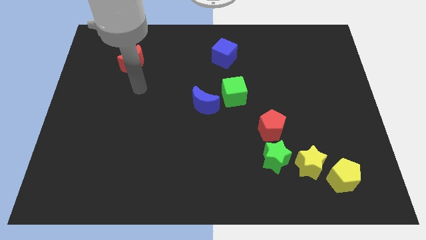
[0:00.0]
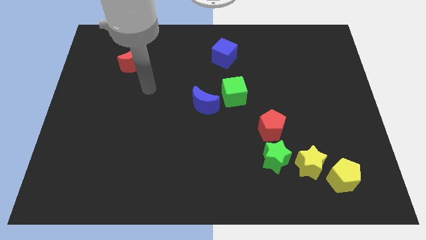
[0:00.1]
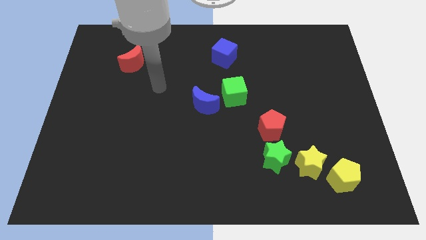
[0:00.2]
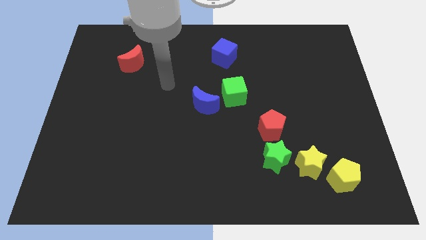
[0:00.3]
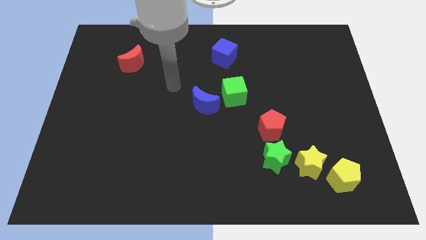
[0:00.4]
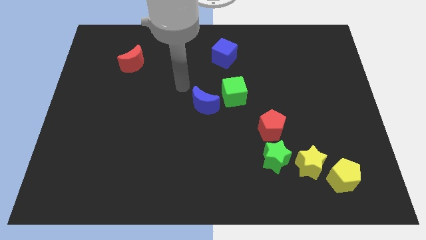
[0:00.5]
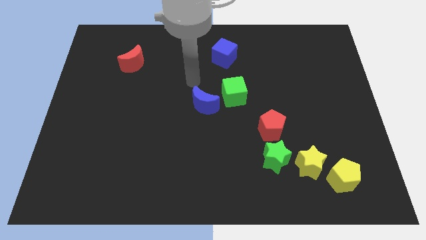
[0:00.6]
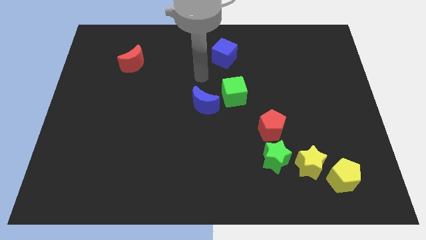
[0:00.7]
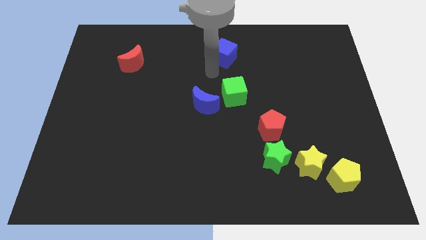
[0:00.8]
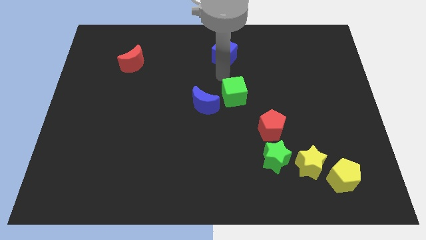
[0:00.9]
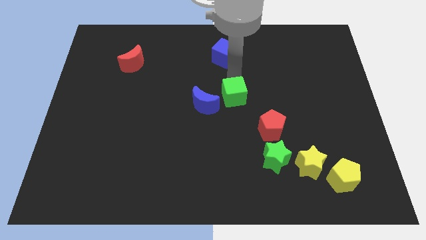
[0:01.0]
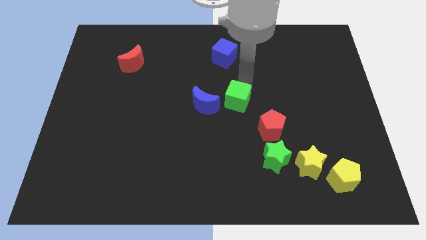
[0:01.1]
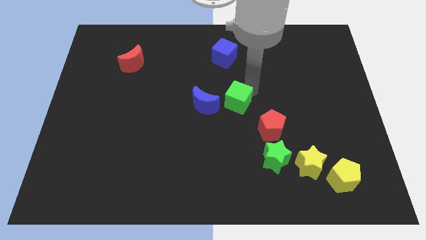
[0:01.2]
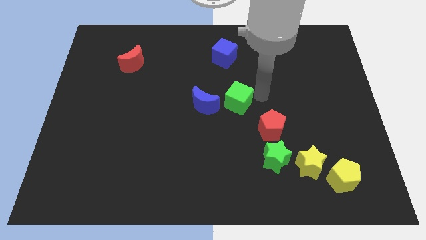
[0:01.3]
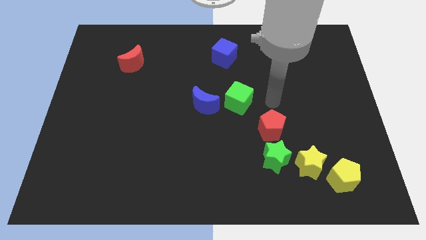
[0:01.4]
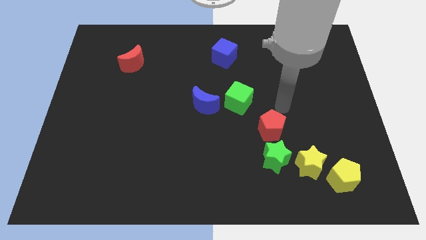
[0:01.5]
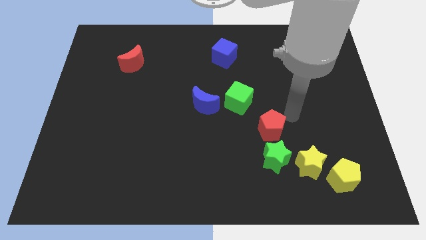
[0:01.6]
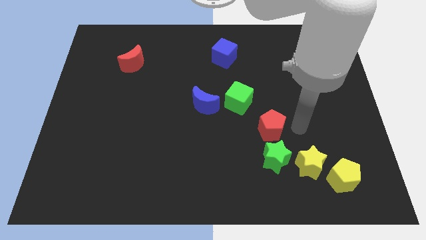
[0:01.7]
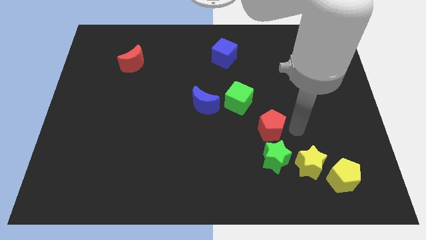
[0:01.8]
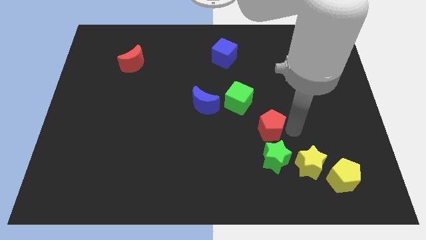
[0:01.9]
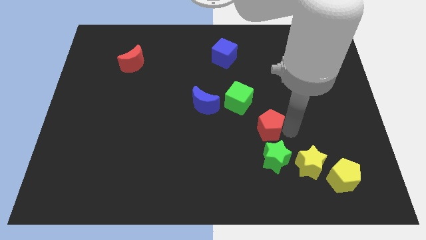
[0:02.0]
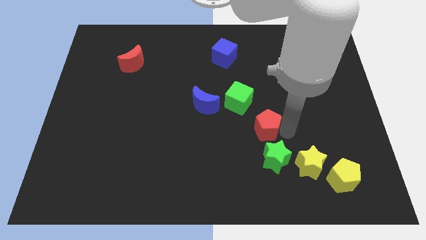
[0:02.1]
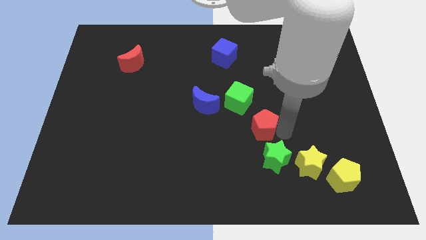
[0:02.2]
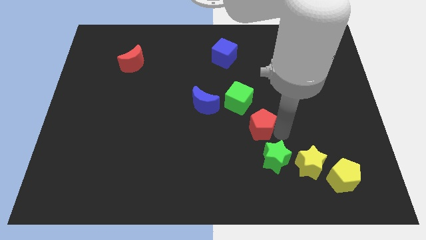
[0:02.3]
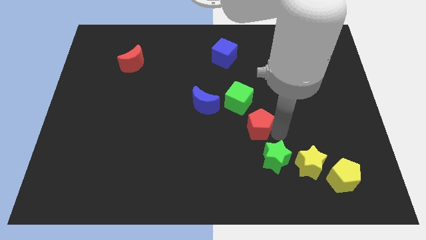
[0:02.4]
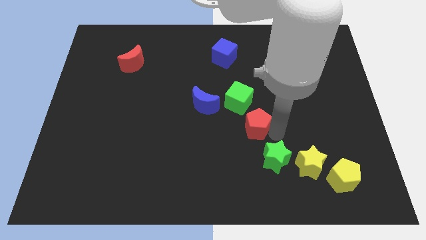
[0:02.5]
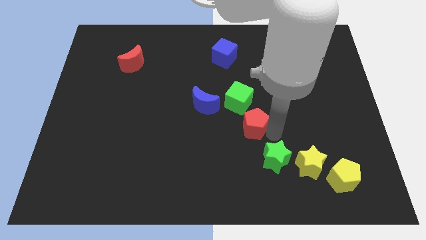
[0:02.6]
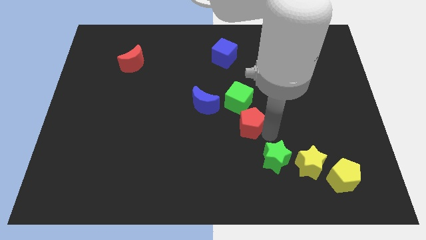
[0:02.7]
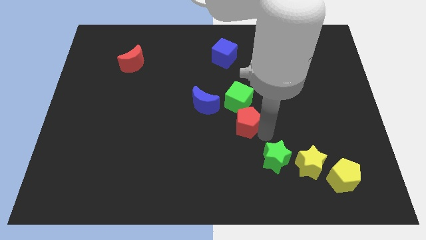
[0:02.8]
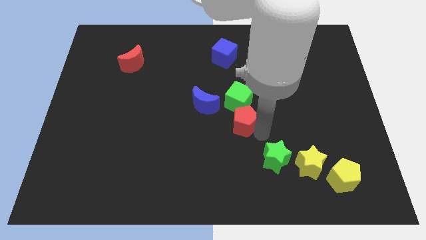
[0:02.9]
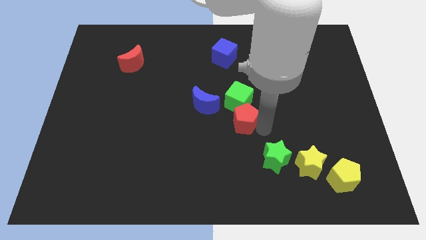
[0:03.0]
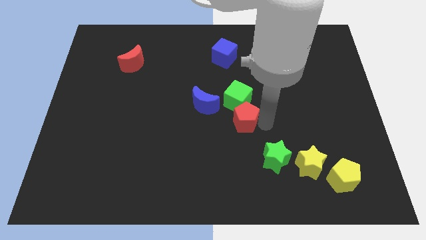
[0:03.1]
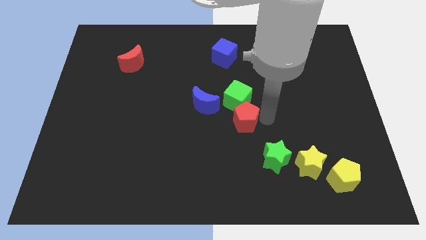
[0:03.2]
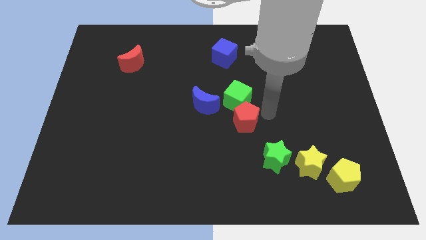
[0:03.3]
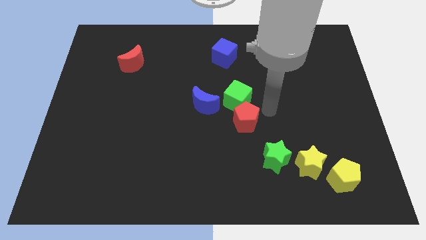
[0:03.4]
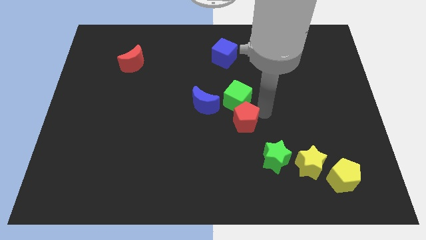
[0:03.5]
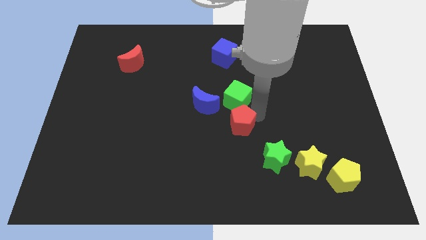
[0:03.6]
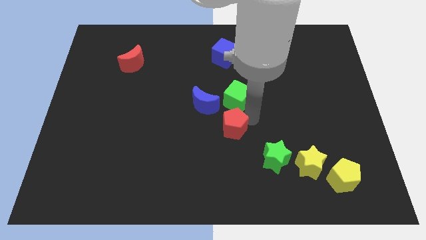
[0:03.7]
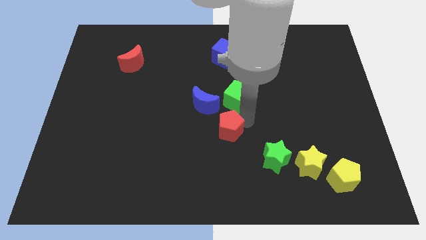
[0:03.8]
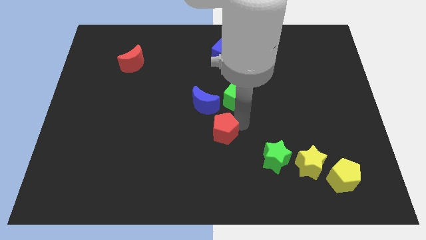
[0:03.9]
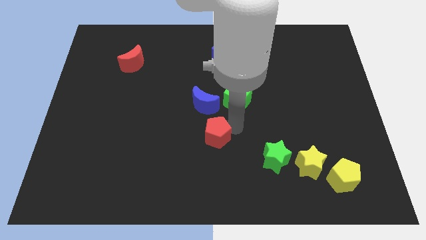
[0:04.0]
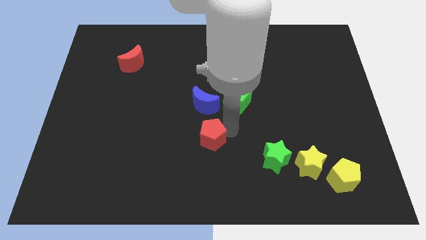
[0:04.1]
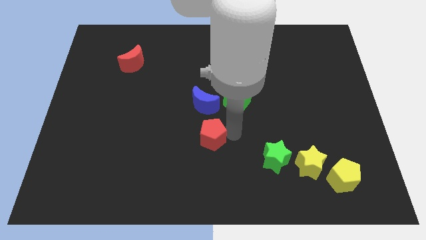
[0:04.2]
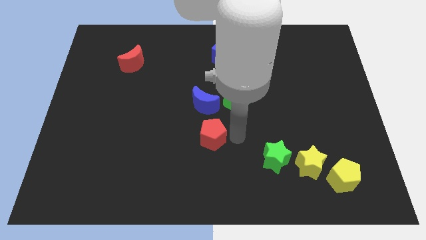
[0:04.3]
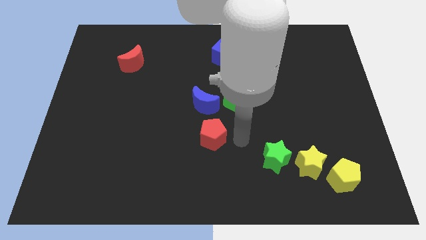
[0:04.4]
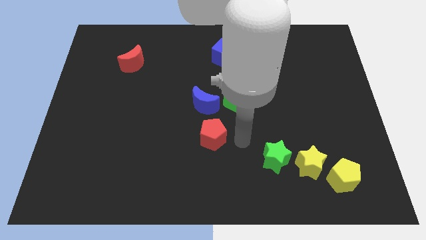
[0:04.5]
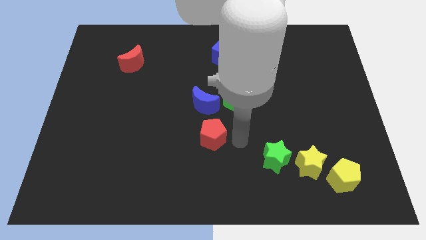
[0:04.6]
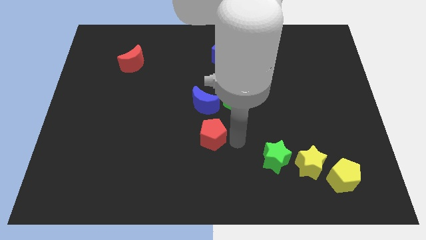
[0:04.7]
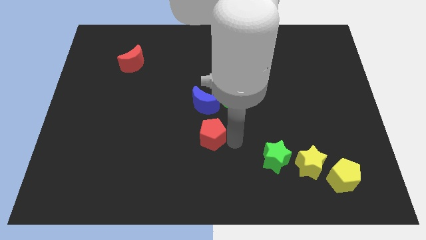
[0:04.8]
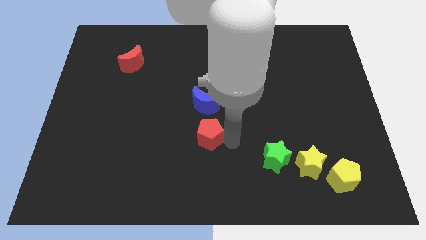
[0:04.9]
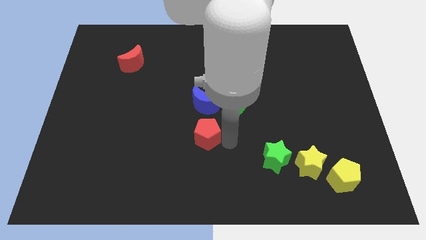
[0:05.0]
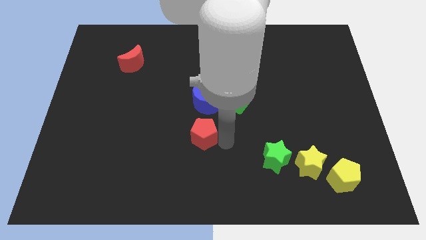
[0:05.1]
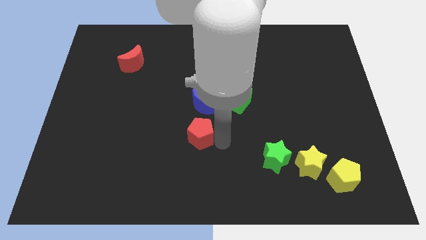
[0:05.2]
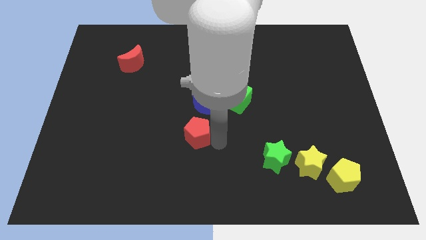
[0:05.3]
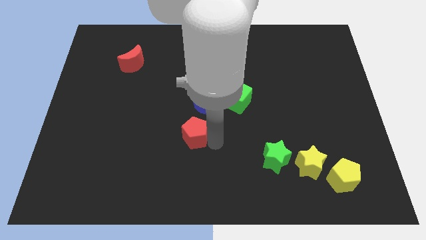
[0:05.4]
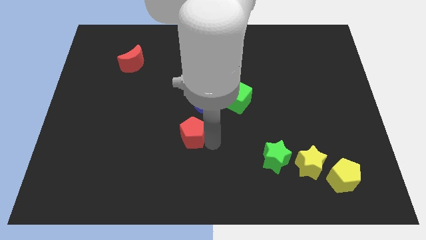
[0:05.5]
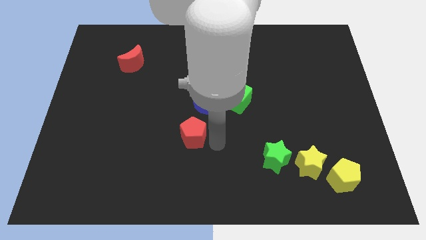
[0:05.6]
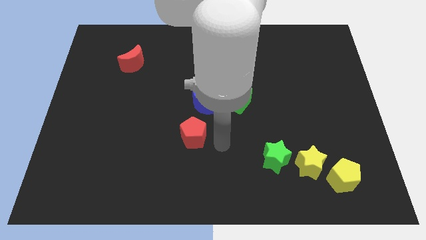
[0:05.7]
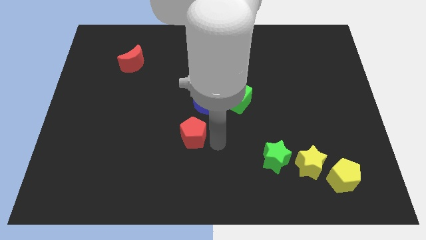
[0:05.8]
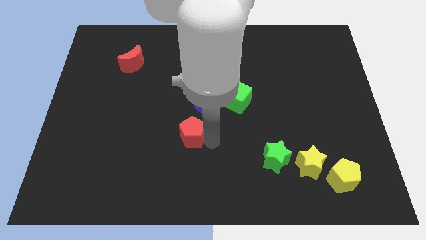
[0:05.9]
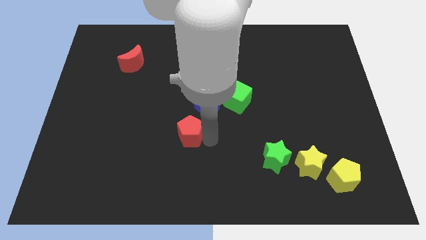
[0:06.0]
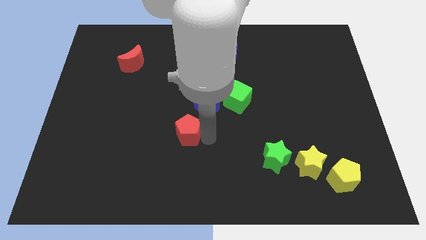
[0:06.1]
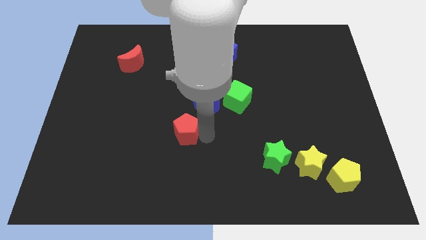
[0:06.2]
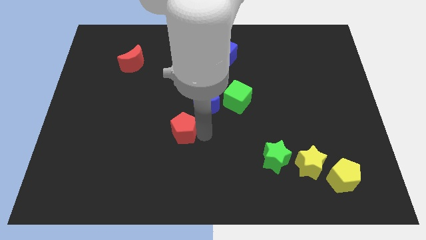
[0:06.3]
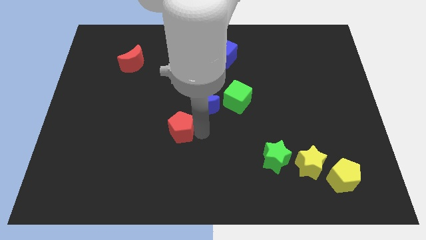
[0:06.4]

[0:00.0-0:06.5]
move the red pentagon to the left

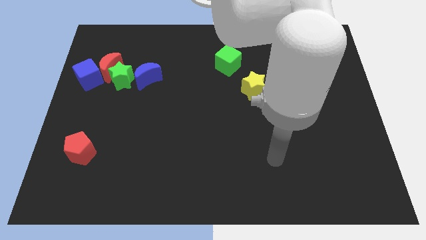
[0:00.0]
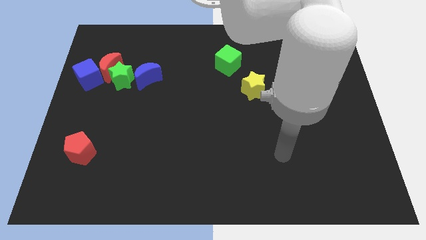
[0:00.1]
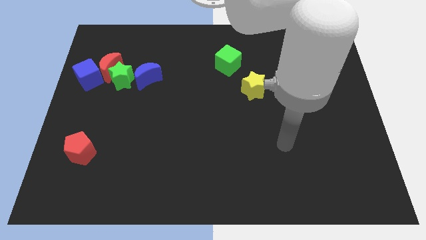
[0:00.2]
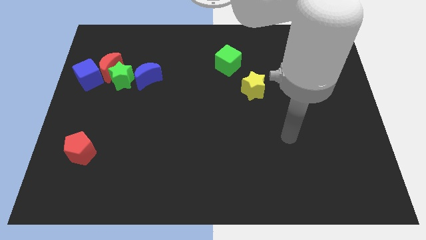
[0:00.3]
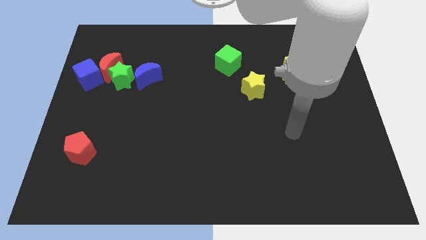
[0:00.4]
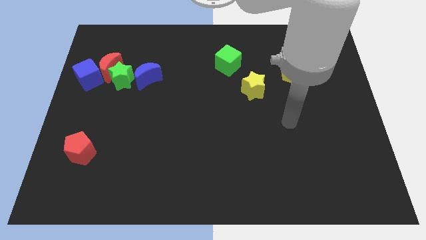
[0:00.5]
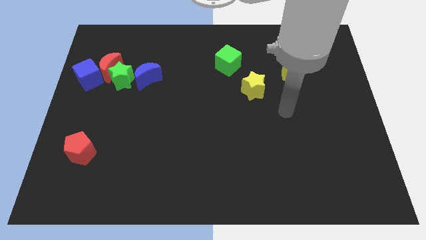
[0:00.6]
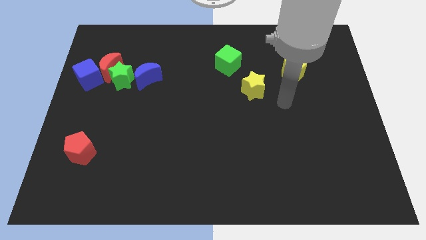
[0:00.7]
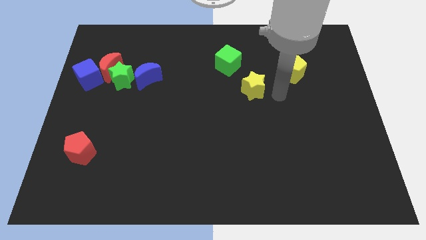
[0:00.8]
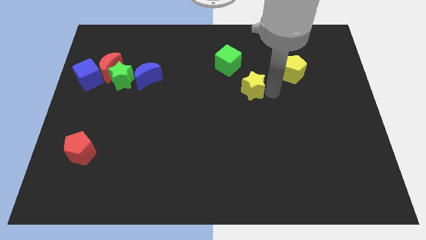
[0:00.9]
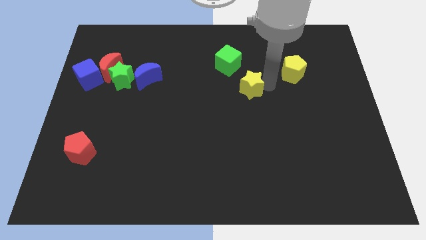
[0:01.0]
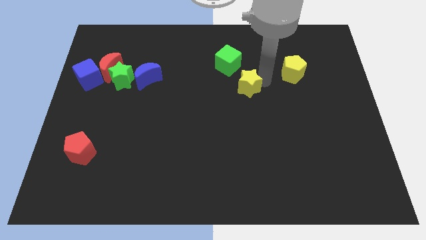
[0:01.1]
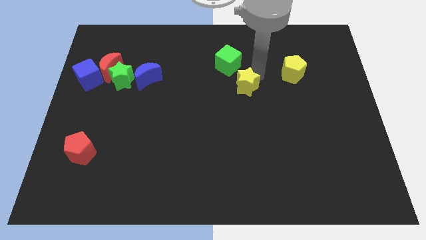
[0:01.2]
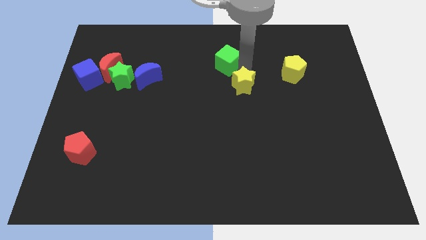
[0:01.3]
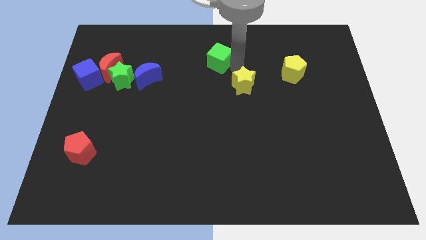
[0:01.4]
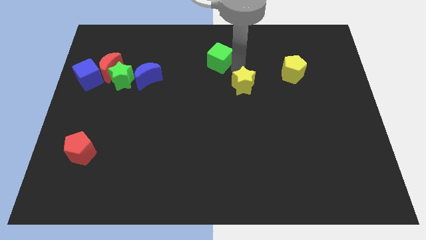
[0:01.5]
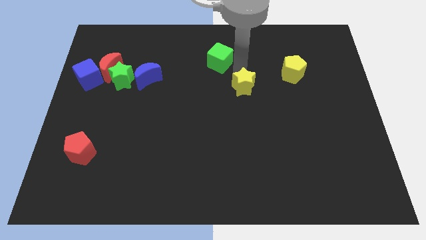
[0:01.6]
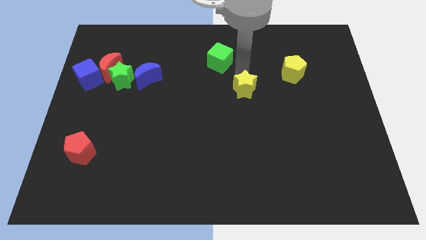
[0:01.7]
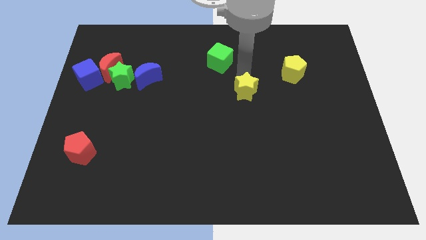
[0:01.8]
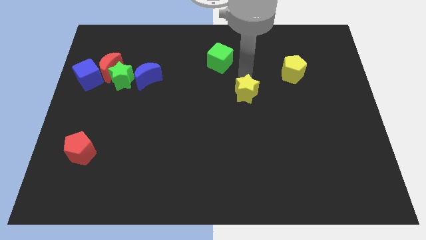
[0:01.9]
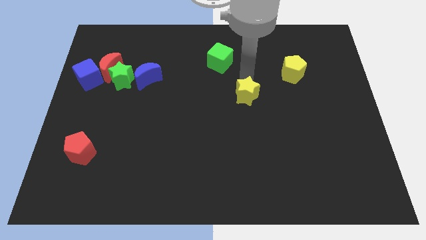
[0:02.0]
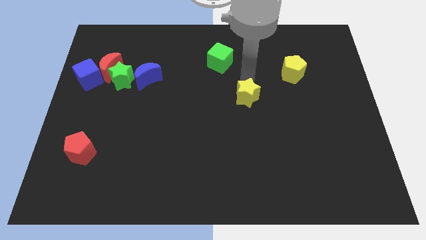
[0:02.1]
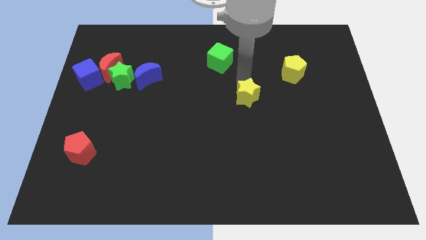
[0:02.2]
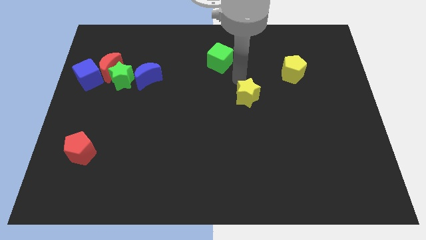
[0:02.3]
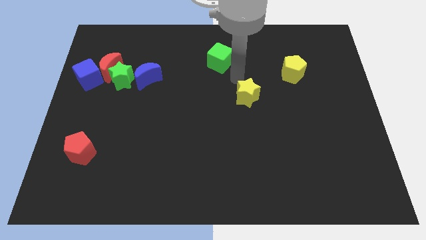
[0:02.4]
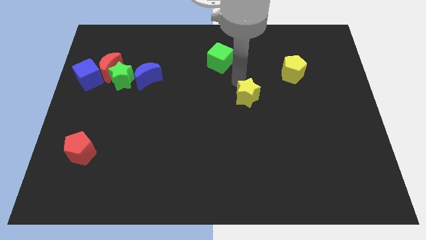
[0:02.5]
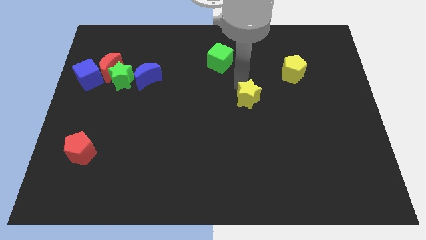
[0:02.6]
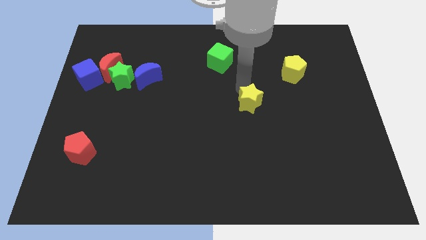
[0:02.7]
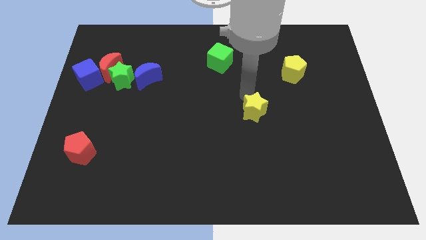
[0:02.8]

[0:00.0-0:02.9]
slide the yellow star down a little
